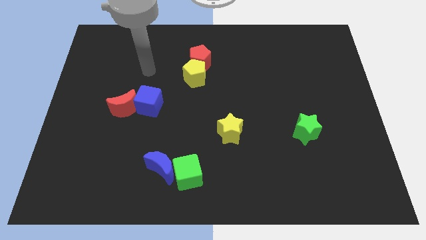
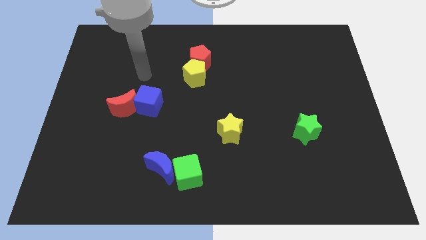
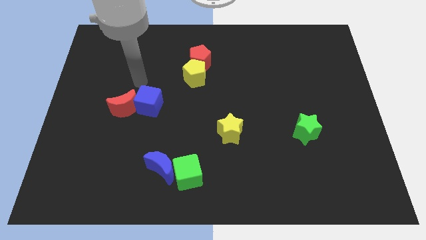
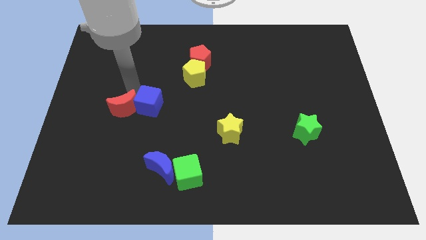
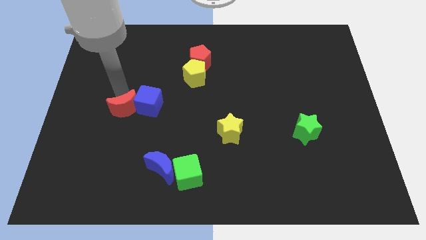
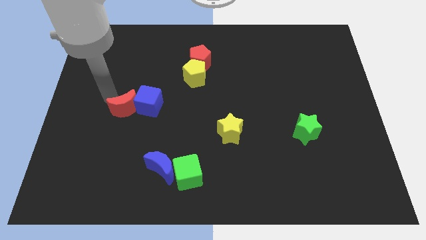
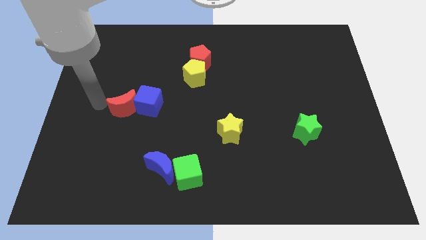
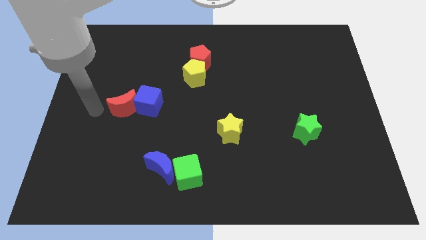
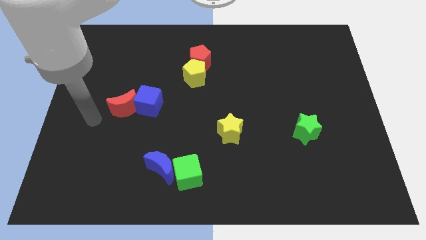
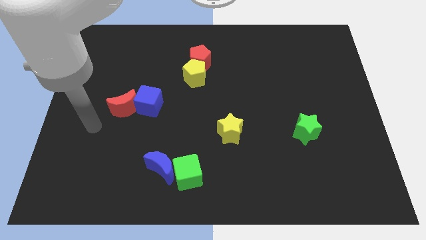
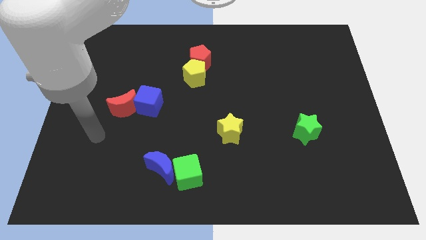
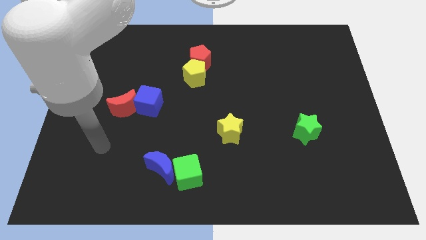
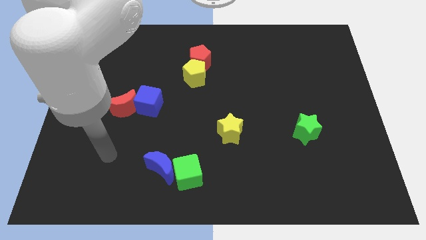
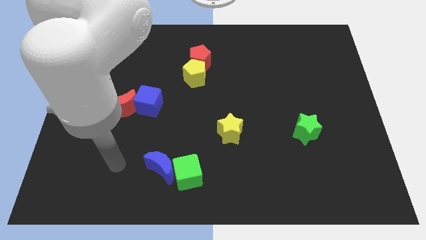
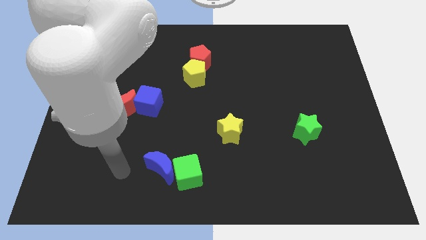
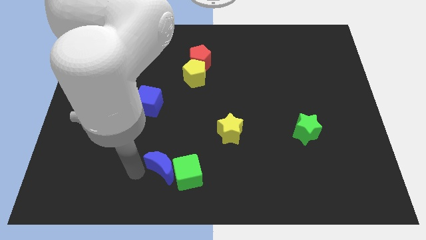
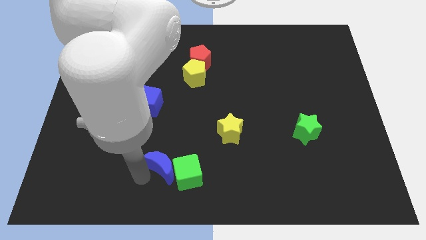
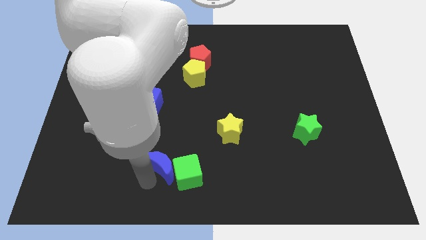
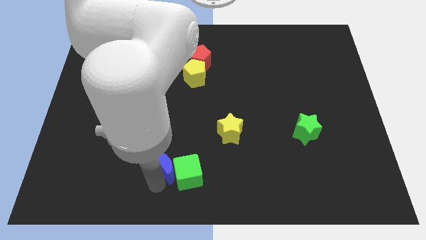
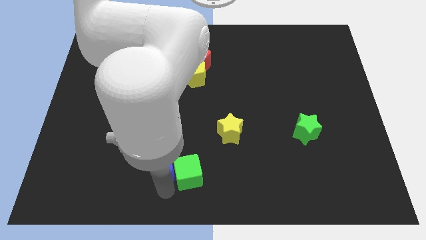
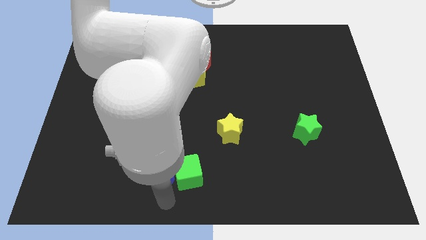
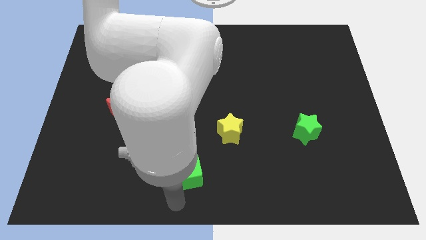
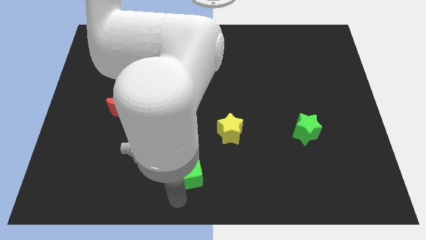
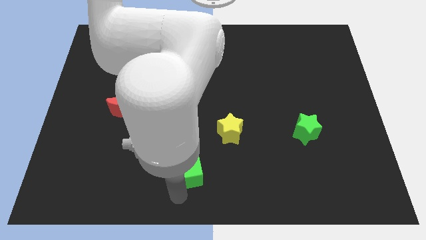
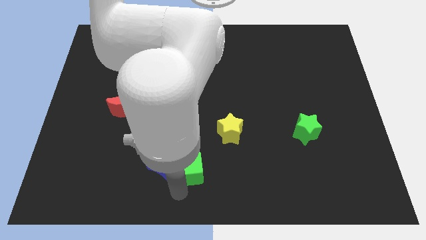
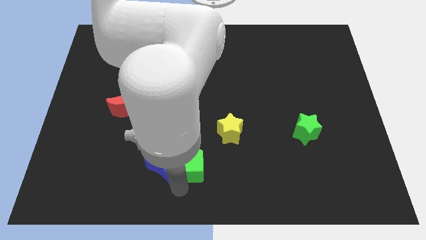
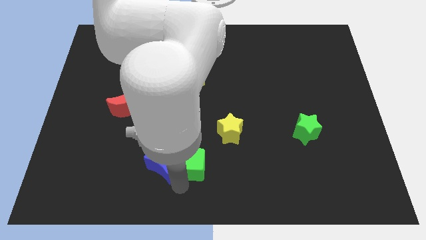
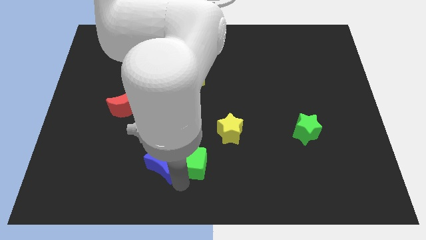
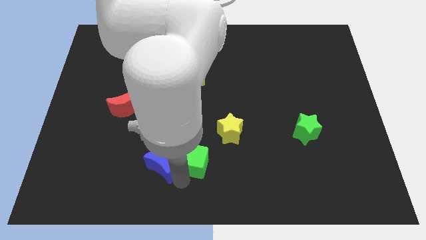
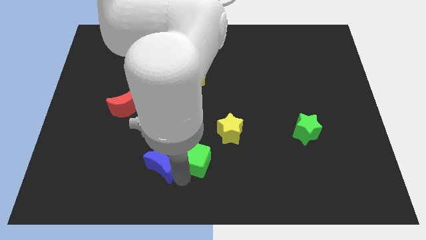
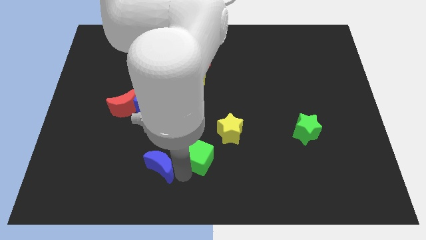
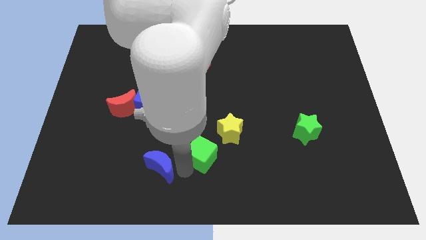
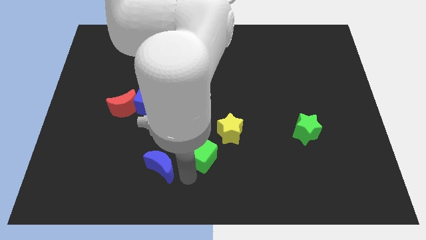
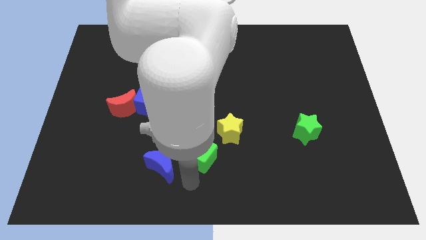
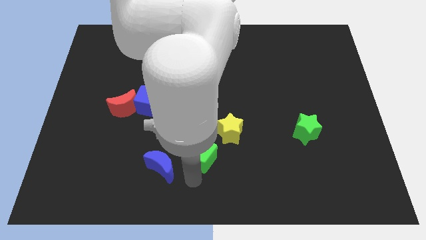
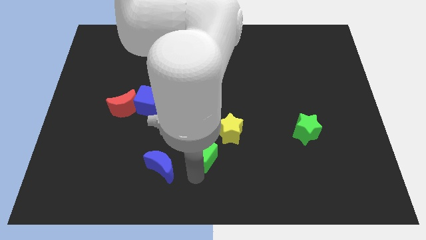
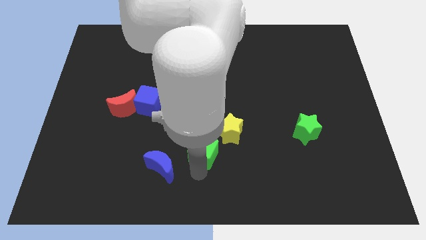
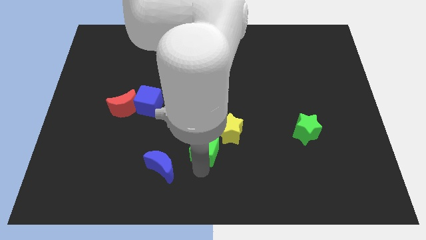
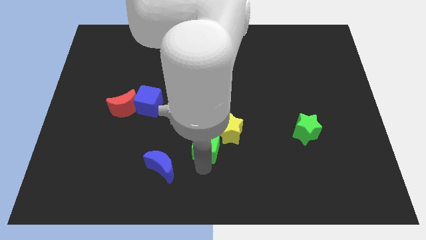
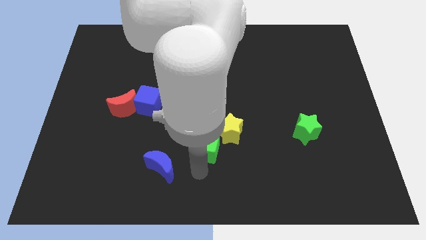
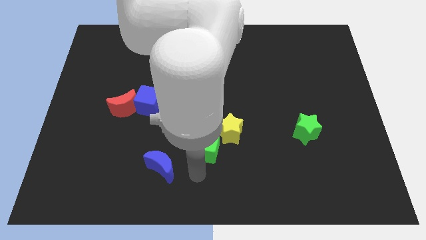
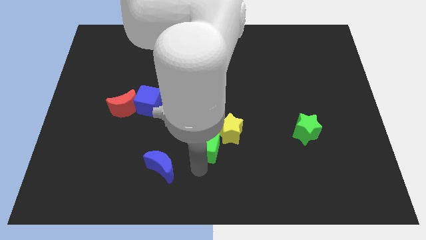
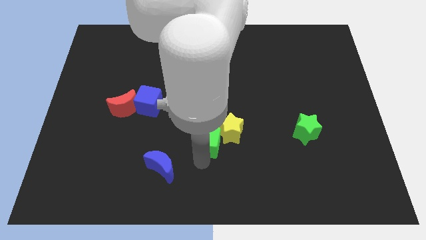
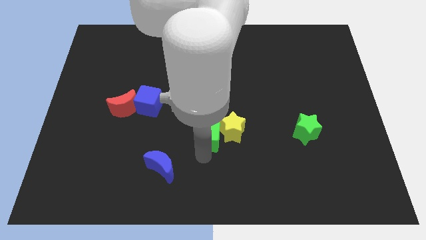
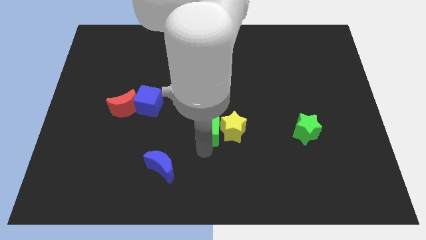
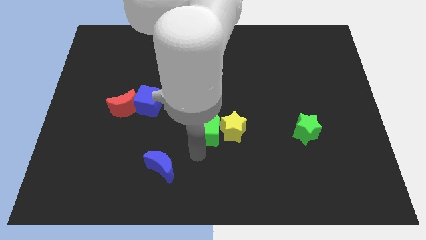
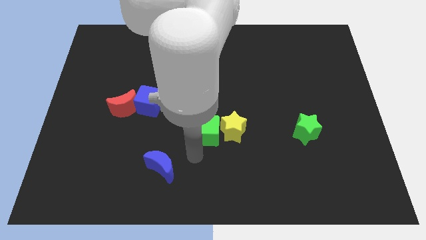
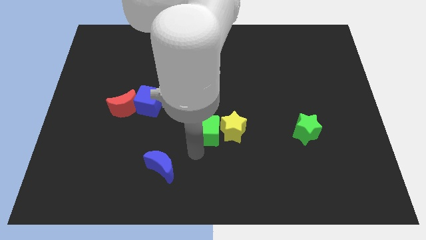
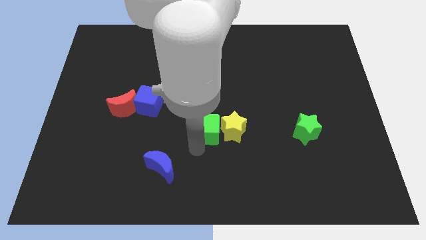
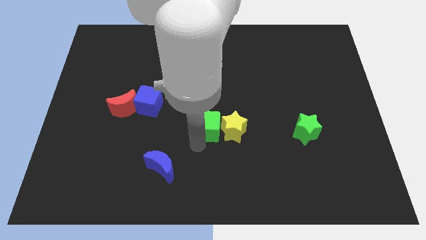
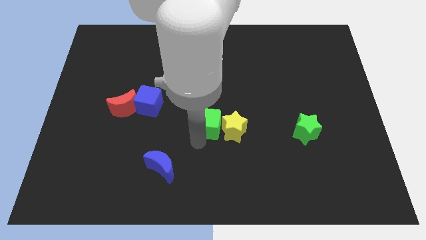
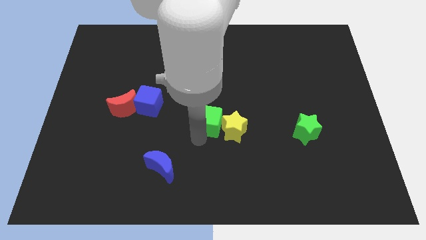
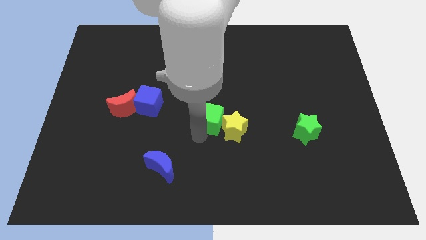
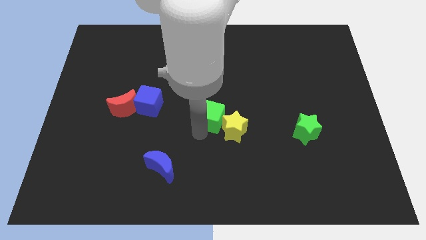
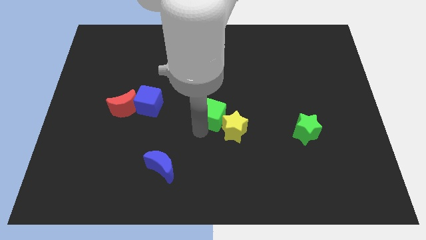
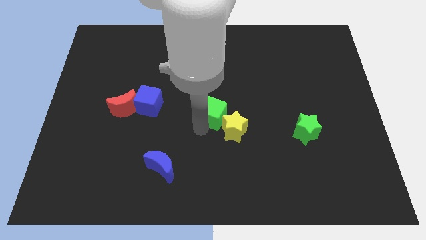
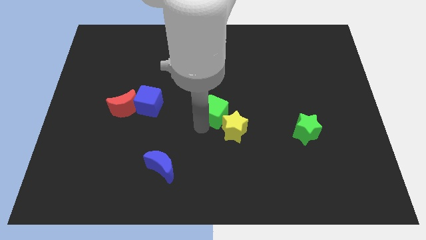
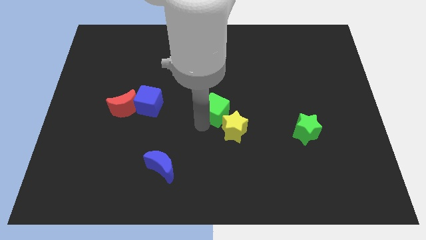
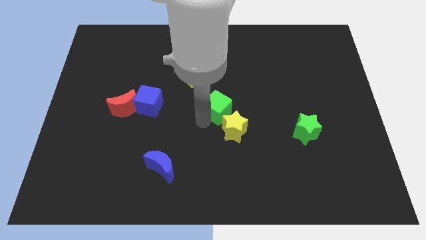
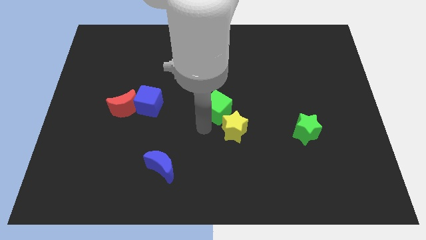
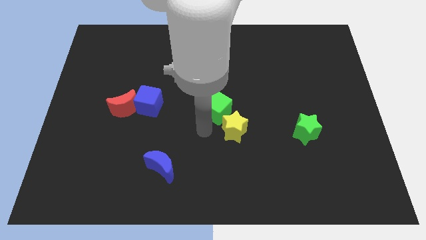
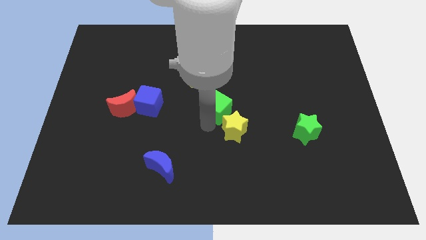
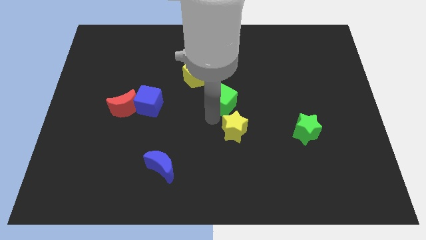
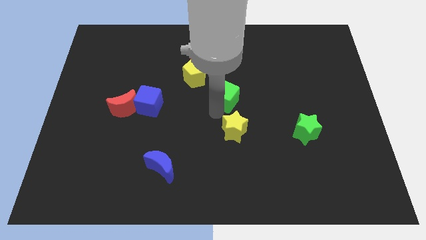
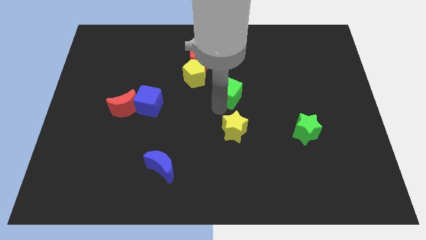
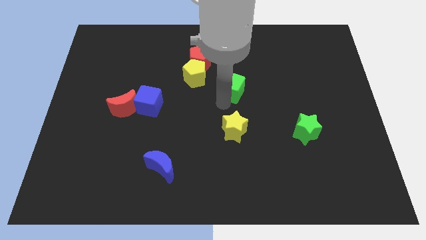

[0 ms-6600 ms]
put the green cube to the right side of the yellow pentagon
